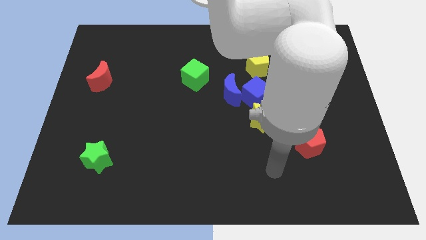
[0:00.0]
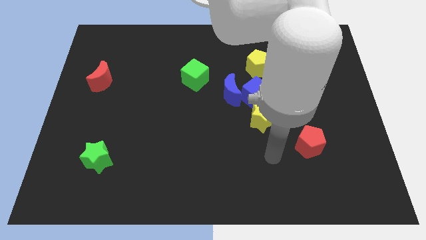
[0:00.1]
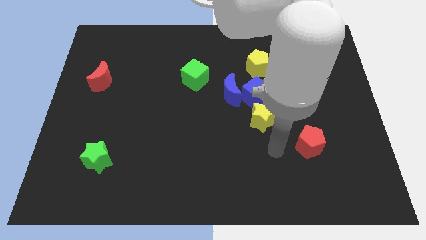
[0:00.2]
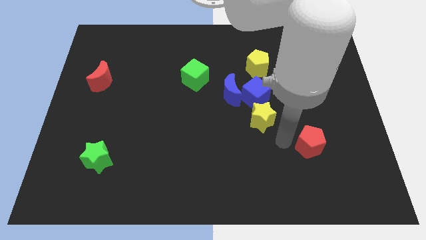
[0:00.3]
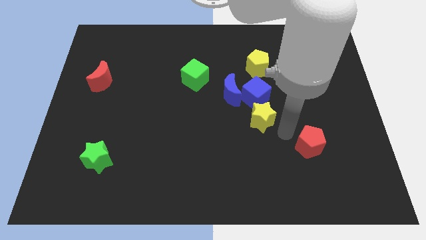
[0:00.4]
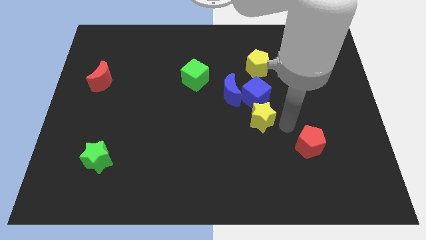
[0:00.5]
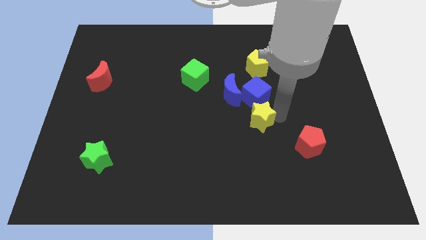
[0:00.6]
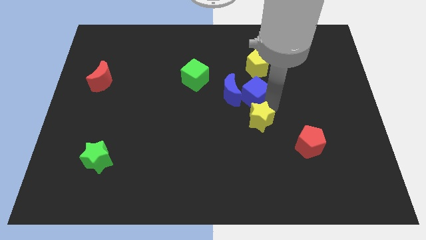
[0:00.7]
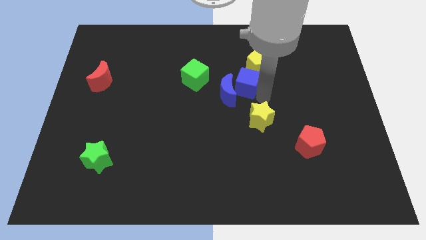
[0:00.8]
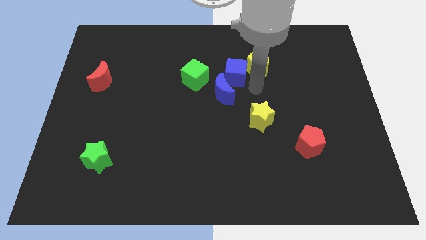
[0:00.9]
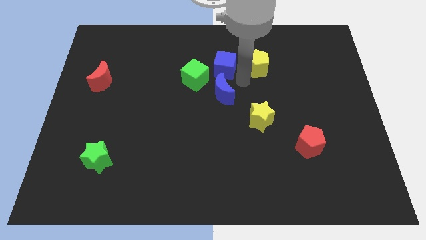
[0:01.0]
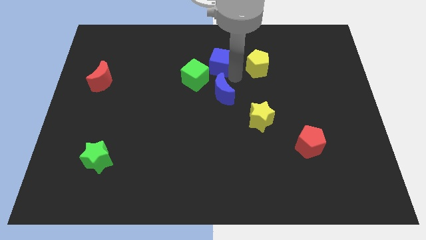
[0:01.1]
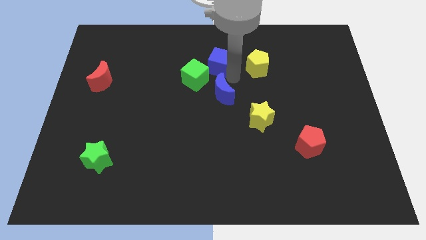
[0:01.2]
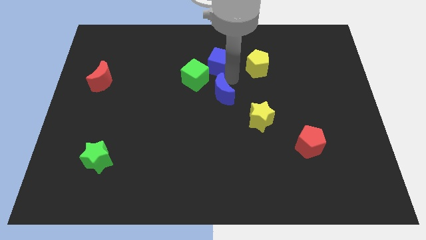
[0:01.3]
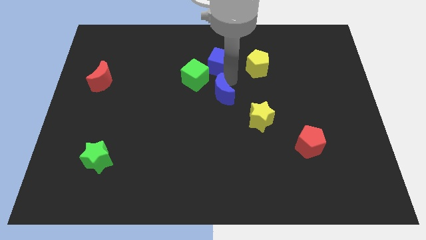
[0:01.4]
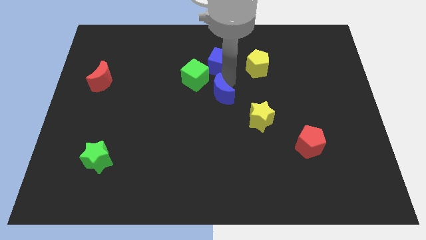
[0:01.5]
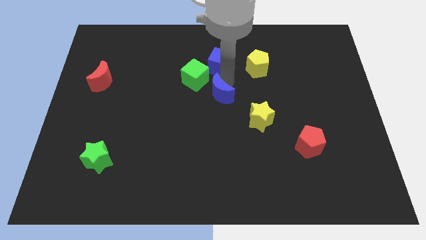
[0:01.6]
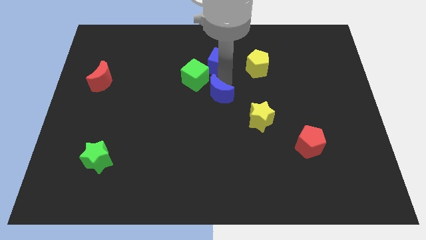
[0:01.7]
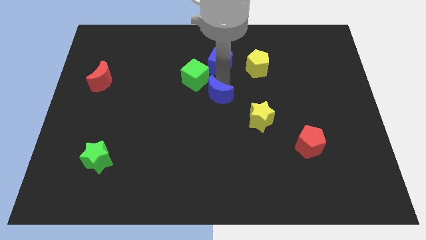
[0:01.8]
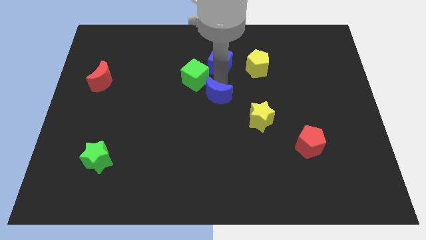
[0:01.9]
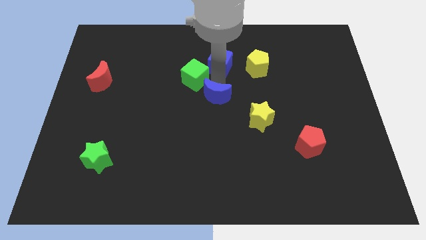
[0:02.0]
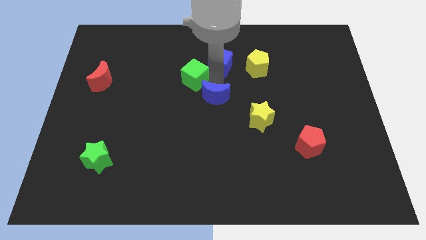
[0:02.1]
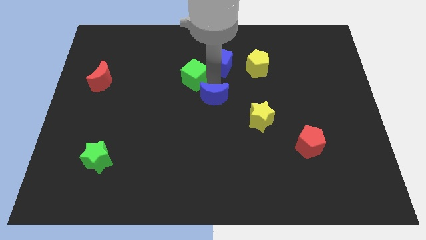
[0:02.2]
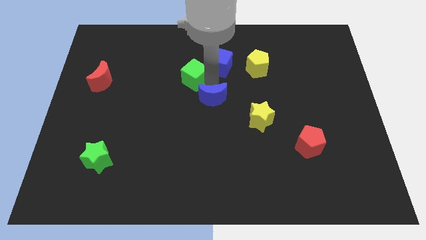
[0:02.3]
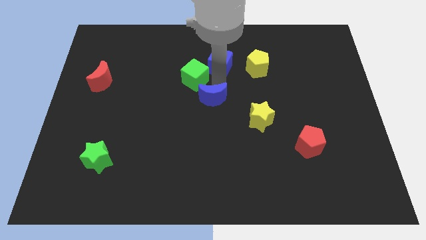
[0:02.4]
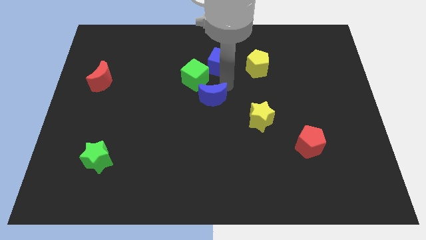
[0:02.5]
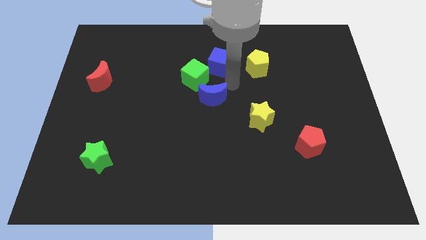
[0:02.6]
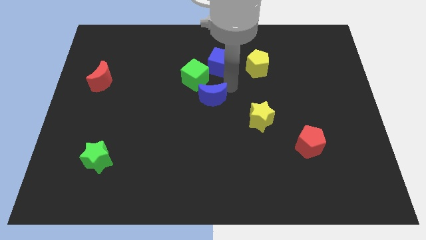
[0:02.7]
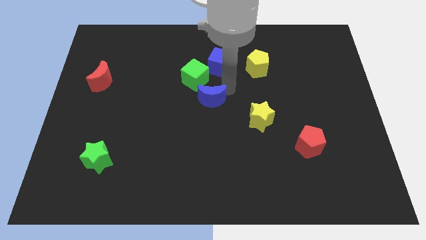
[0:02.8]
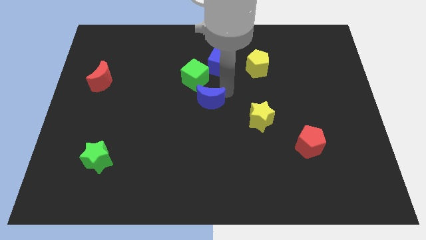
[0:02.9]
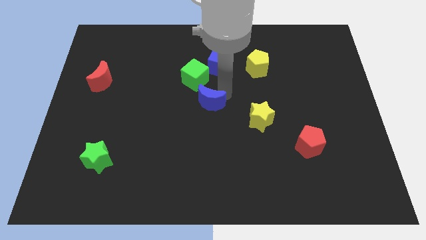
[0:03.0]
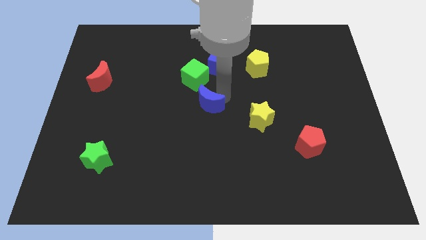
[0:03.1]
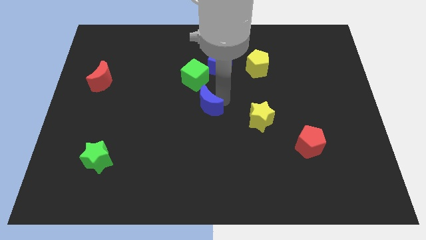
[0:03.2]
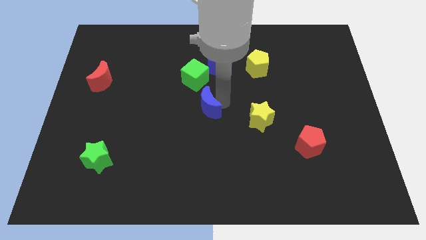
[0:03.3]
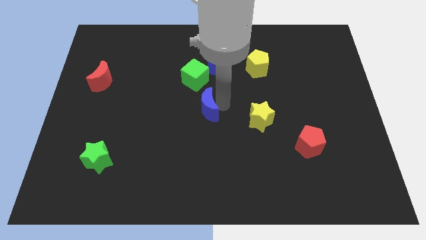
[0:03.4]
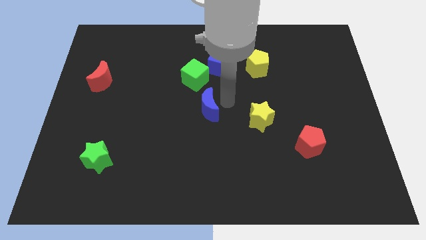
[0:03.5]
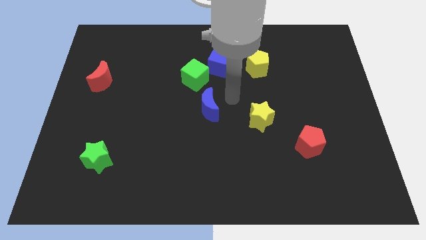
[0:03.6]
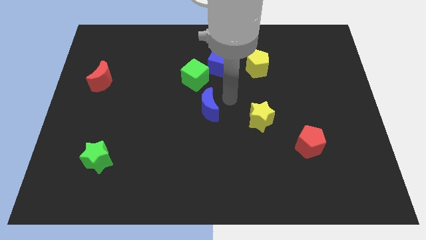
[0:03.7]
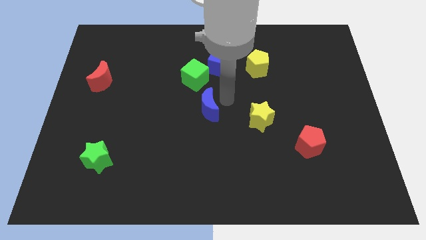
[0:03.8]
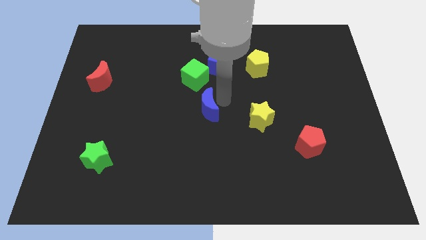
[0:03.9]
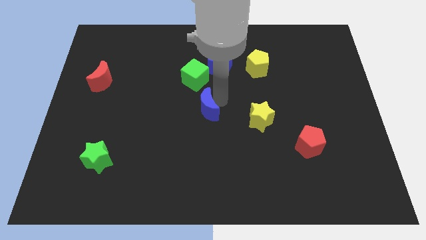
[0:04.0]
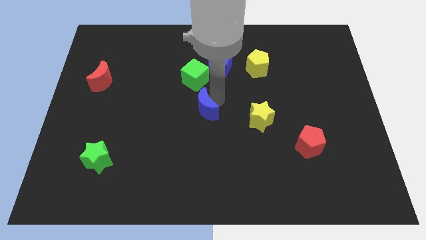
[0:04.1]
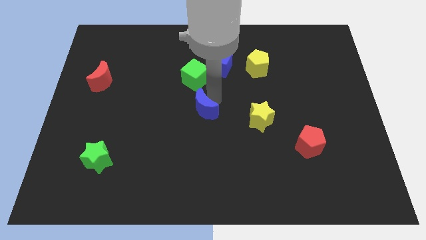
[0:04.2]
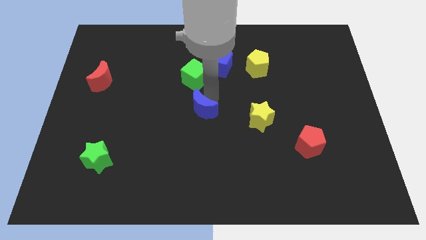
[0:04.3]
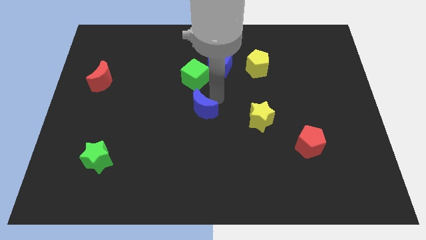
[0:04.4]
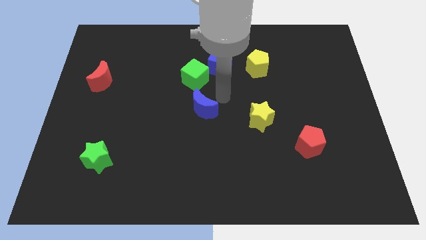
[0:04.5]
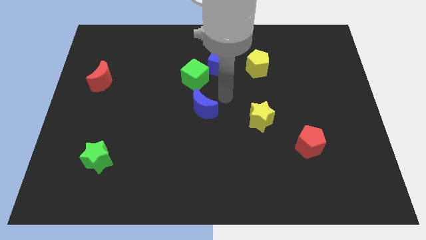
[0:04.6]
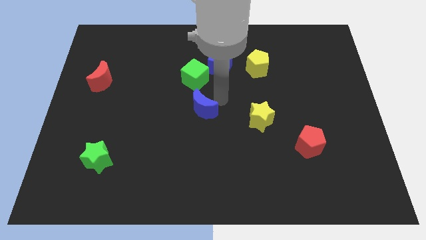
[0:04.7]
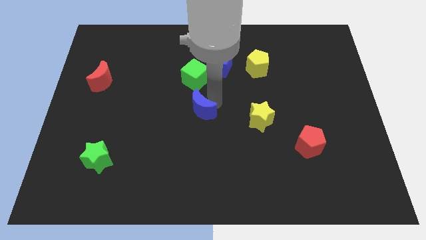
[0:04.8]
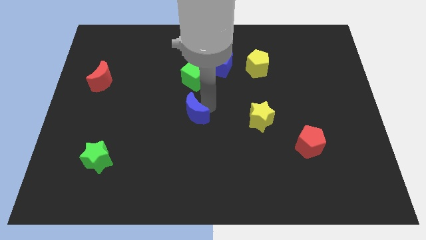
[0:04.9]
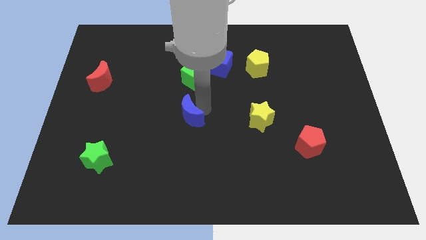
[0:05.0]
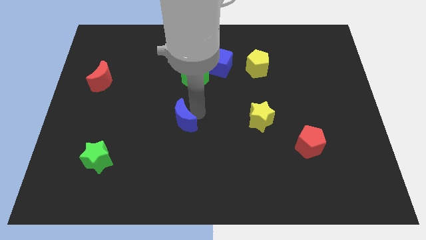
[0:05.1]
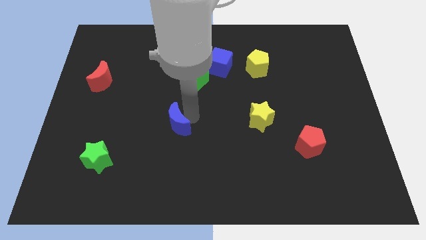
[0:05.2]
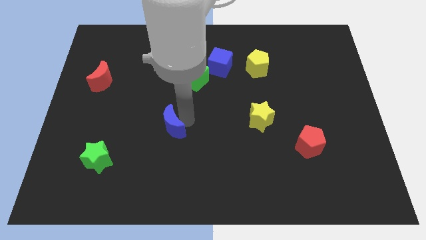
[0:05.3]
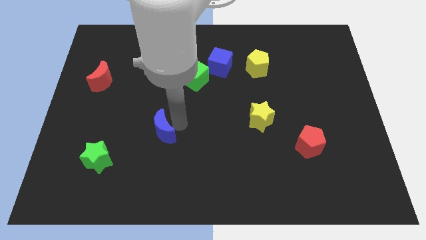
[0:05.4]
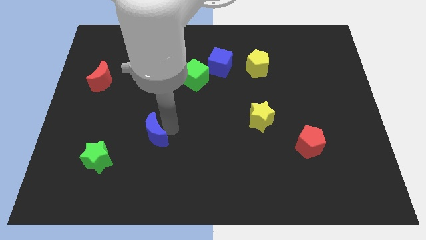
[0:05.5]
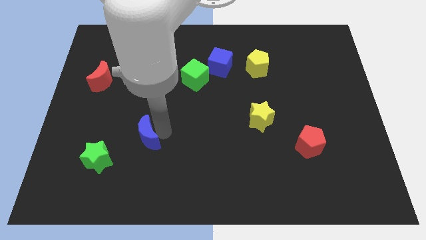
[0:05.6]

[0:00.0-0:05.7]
slide the blue moon to the top right side of the green star

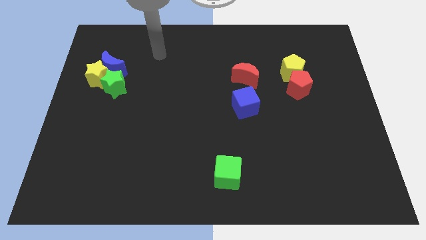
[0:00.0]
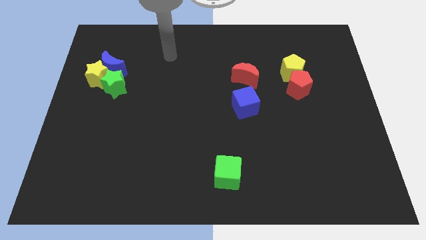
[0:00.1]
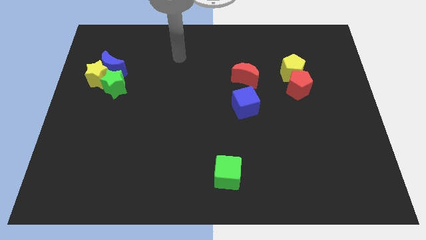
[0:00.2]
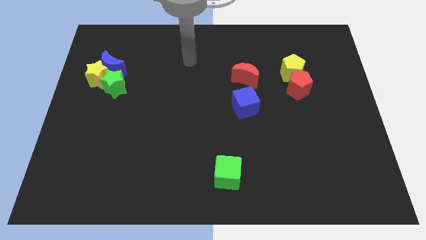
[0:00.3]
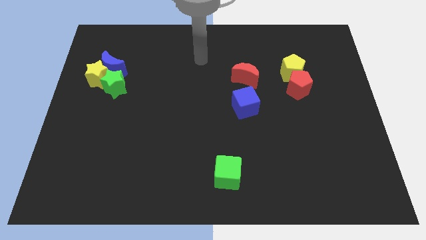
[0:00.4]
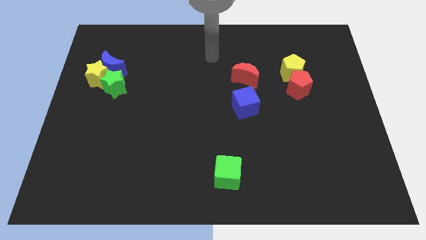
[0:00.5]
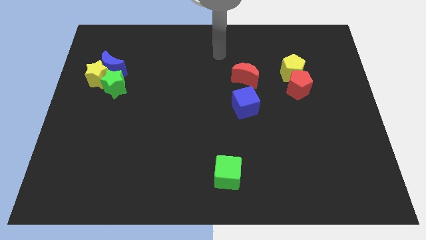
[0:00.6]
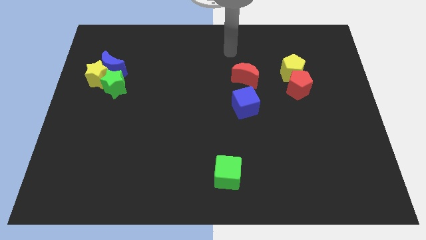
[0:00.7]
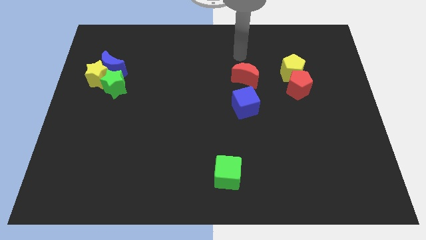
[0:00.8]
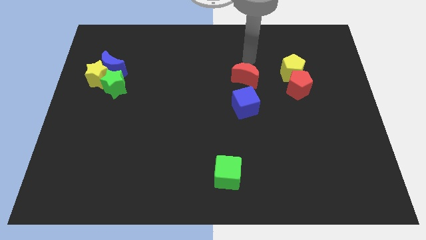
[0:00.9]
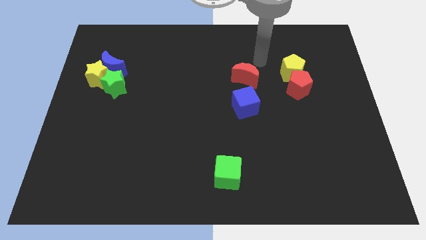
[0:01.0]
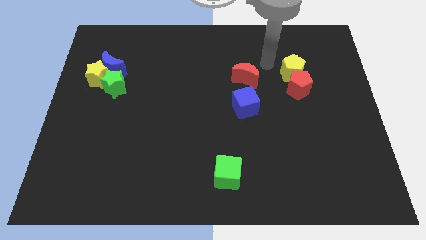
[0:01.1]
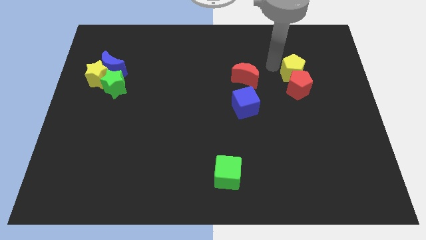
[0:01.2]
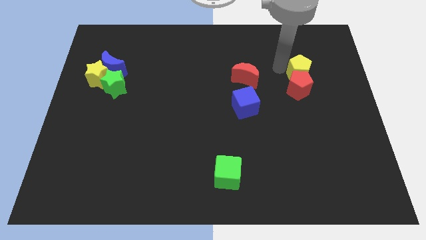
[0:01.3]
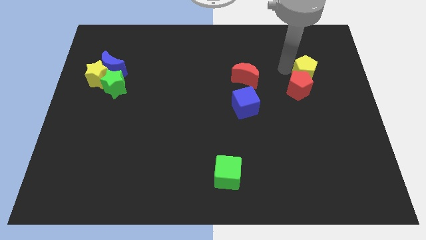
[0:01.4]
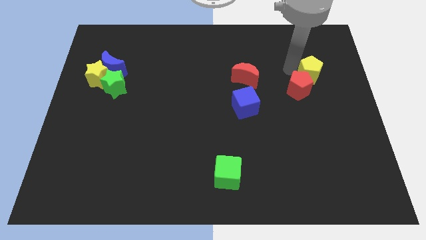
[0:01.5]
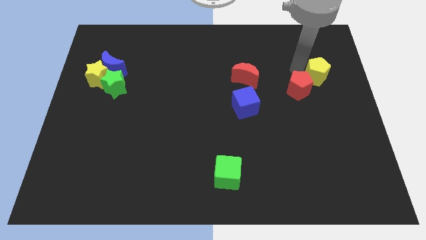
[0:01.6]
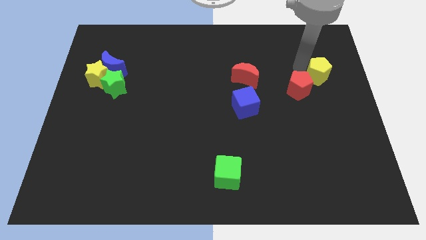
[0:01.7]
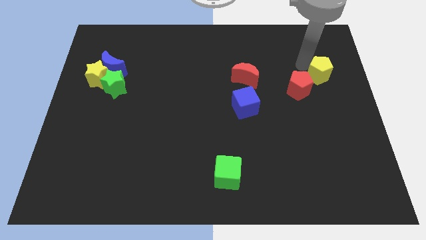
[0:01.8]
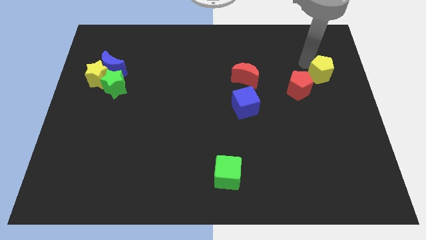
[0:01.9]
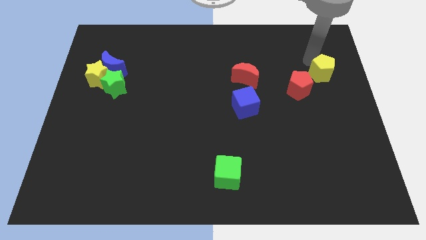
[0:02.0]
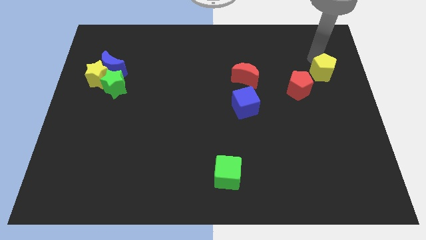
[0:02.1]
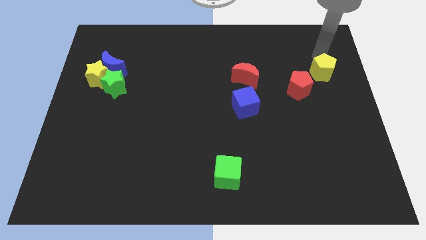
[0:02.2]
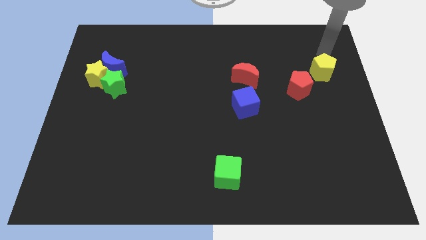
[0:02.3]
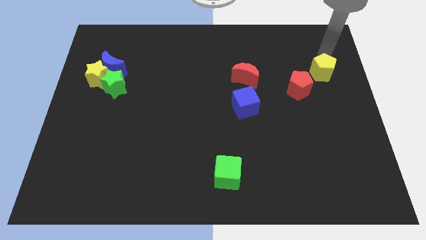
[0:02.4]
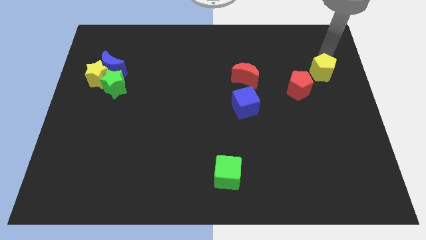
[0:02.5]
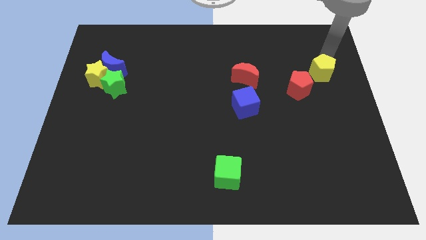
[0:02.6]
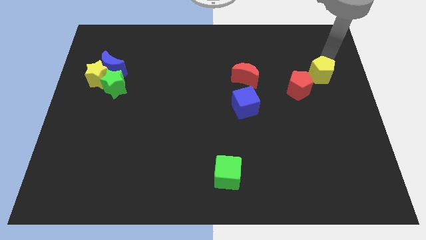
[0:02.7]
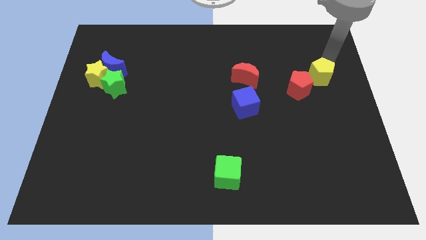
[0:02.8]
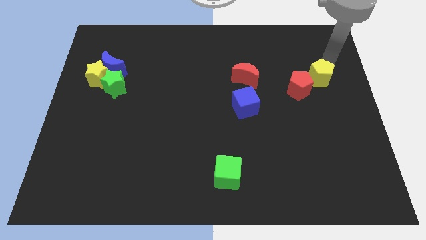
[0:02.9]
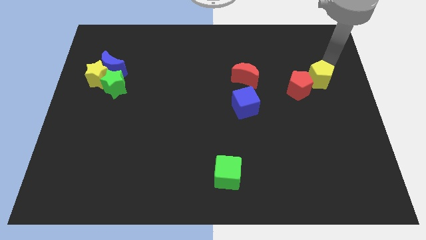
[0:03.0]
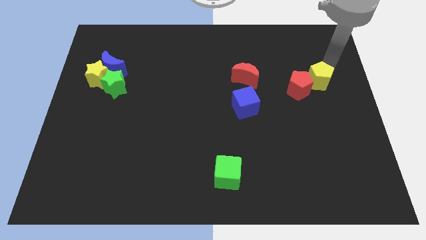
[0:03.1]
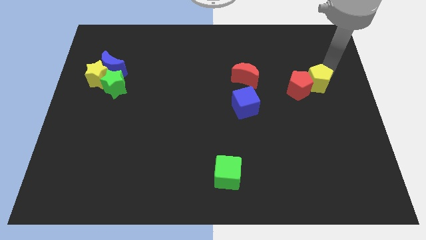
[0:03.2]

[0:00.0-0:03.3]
put the yellow pentagon diagonally down and to the right of the red pentagon
